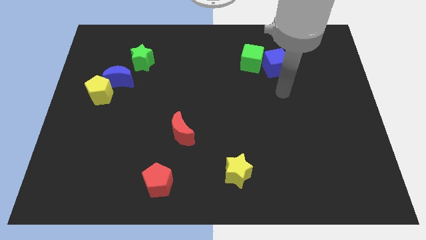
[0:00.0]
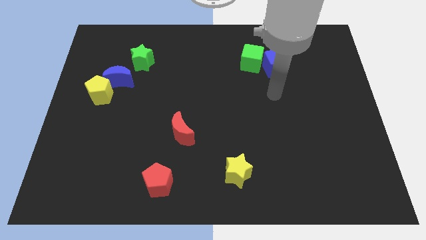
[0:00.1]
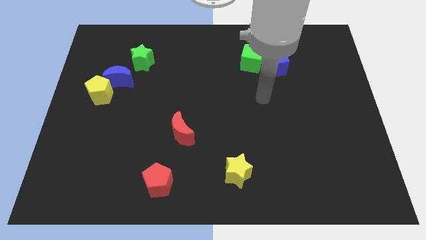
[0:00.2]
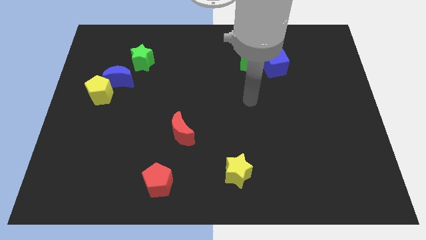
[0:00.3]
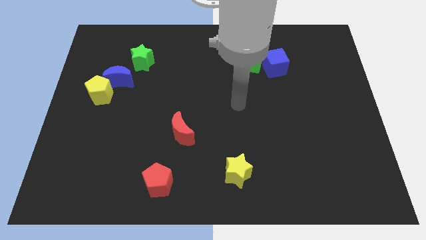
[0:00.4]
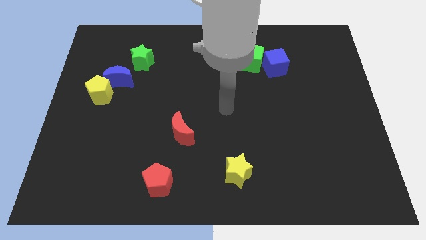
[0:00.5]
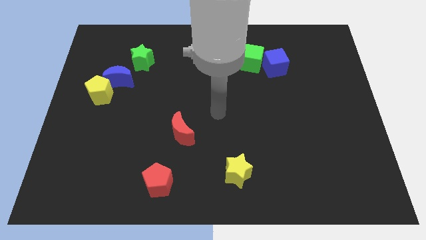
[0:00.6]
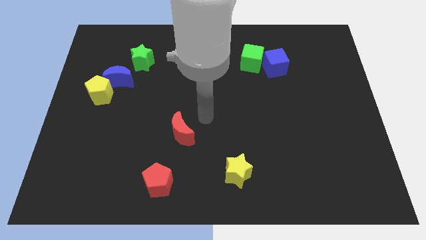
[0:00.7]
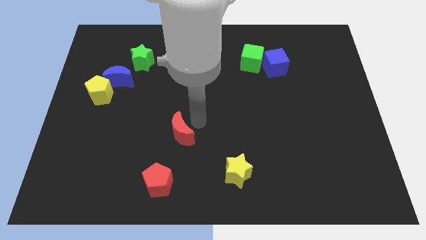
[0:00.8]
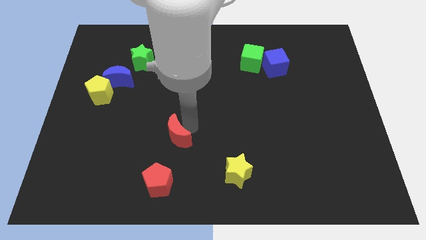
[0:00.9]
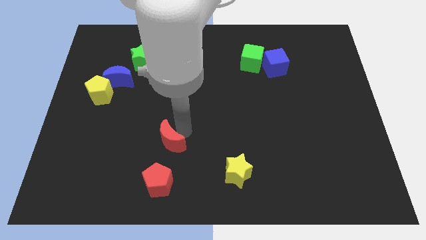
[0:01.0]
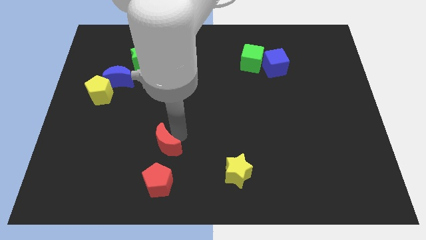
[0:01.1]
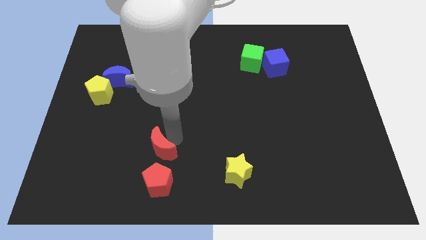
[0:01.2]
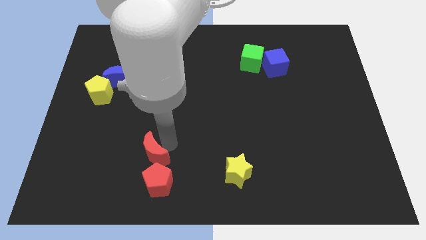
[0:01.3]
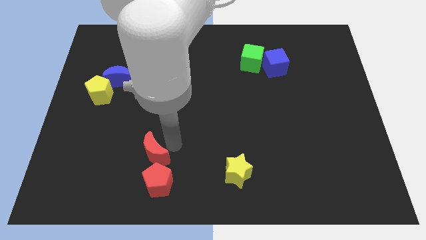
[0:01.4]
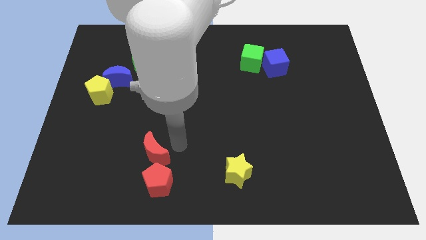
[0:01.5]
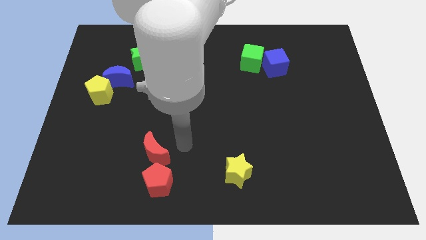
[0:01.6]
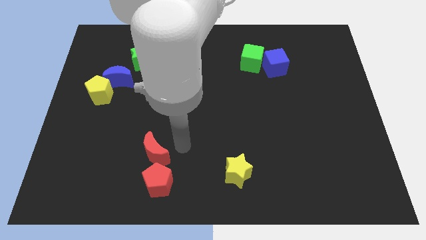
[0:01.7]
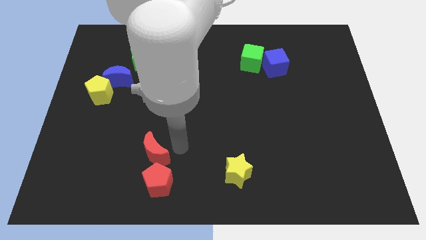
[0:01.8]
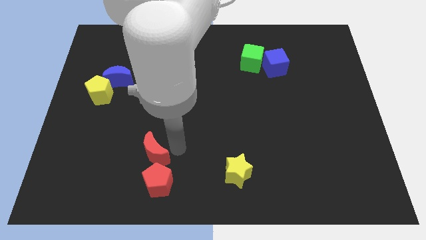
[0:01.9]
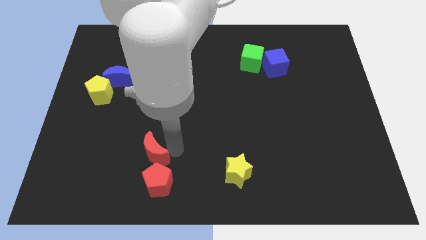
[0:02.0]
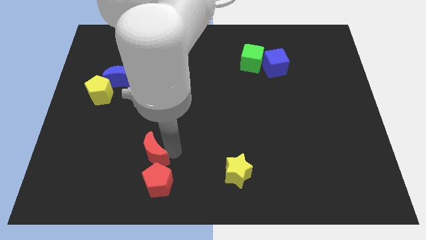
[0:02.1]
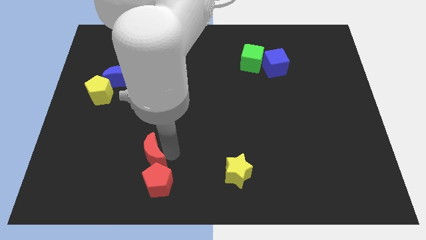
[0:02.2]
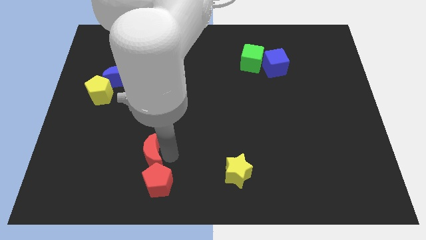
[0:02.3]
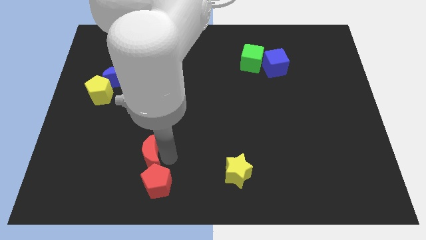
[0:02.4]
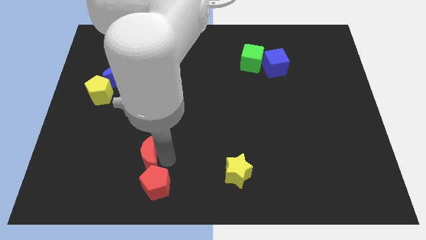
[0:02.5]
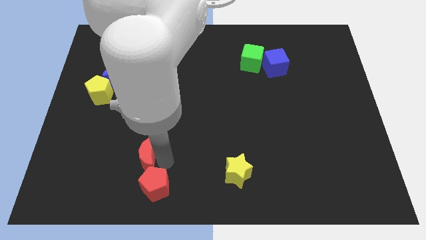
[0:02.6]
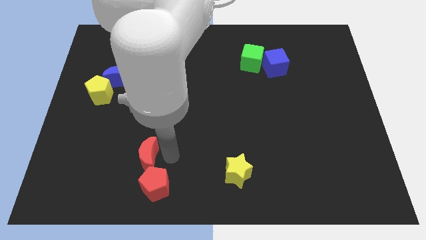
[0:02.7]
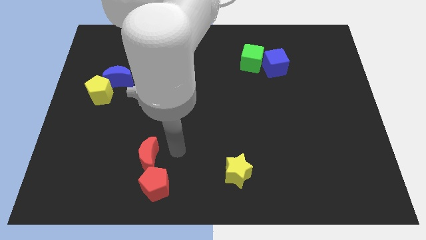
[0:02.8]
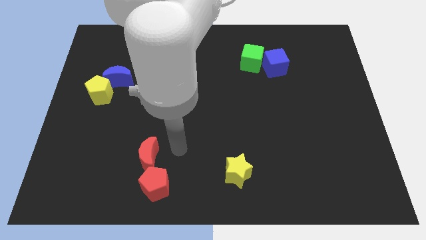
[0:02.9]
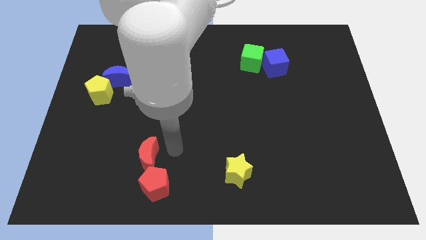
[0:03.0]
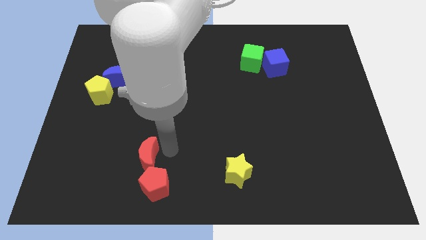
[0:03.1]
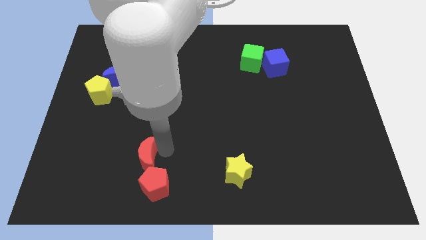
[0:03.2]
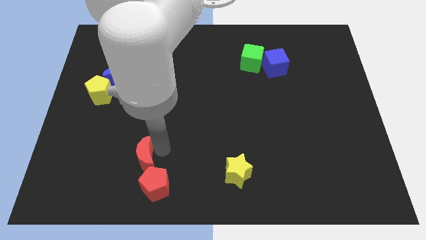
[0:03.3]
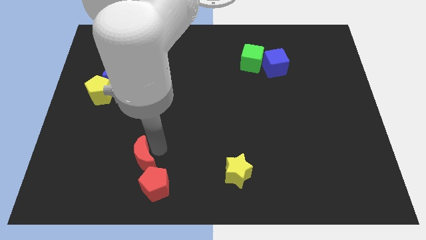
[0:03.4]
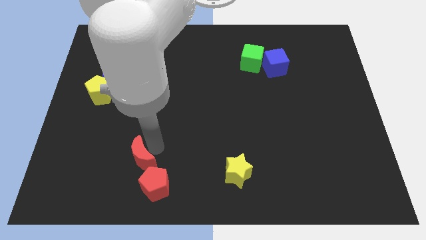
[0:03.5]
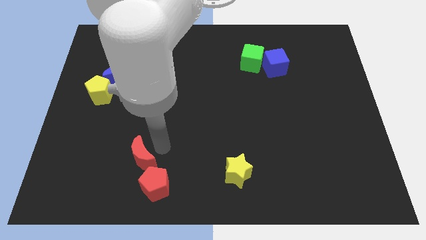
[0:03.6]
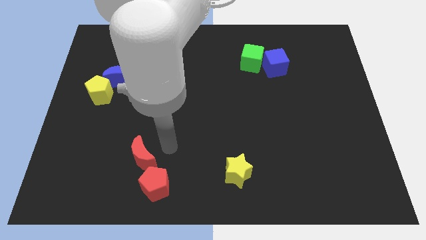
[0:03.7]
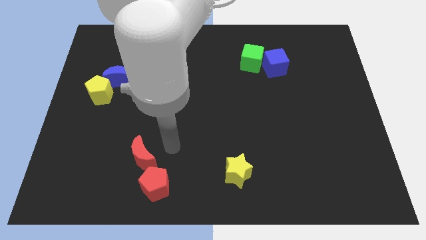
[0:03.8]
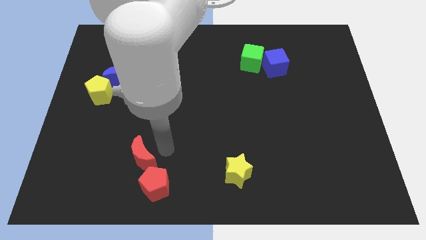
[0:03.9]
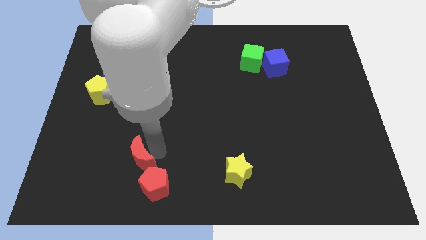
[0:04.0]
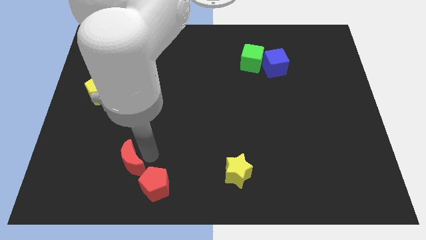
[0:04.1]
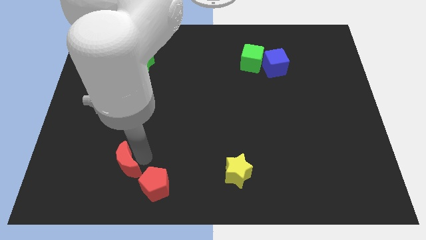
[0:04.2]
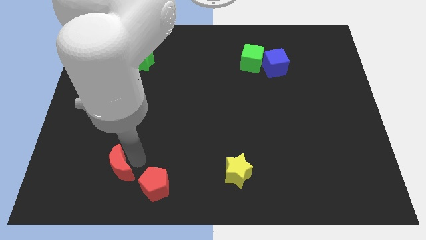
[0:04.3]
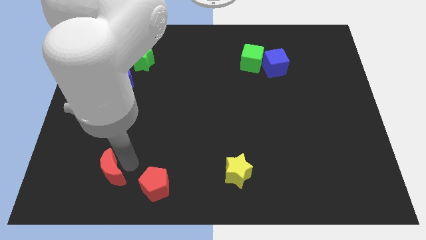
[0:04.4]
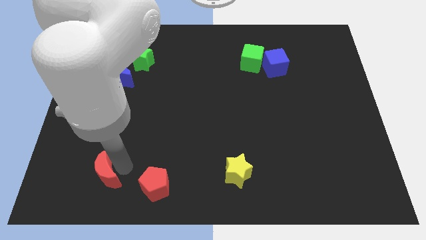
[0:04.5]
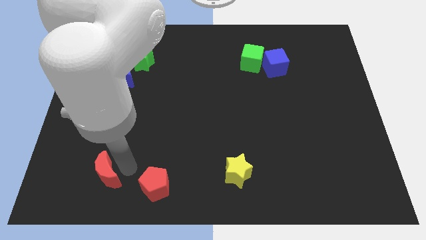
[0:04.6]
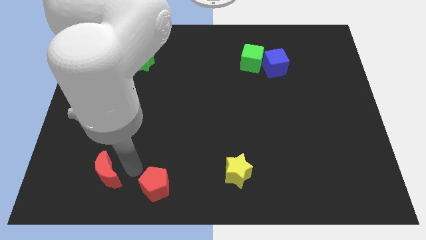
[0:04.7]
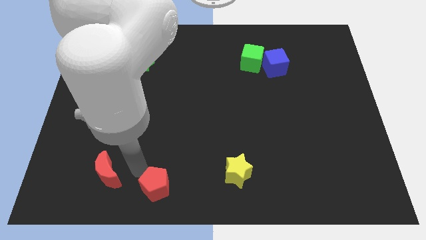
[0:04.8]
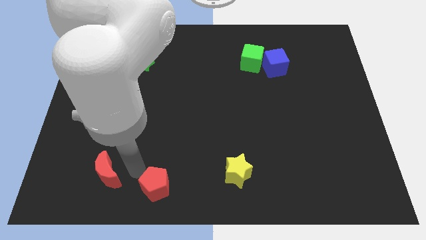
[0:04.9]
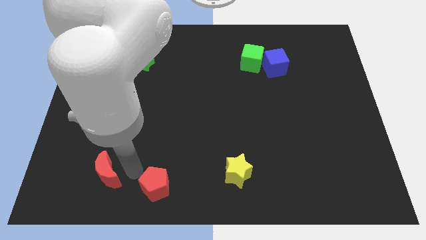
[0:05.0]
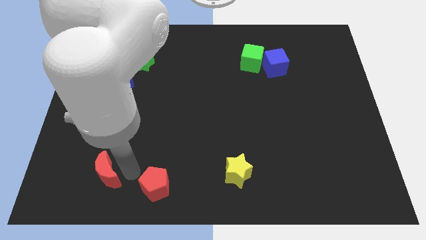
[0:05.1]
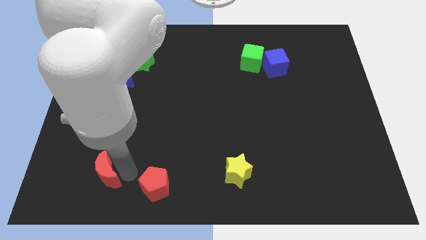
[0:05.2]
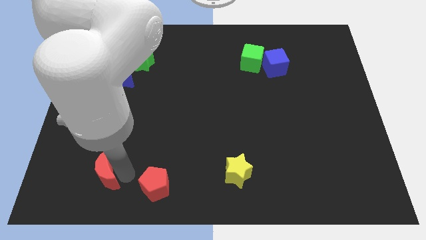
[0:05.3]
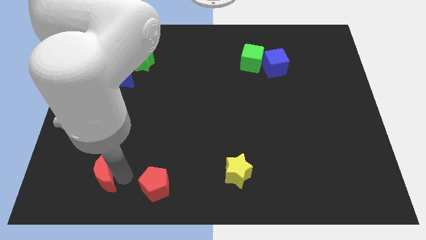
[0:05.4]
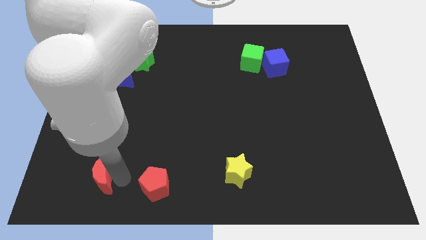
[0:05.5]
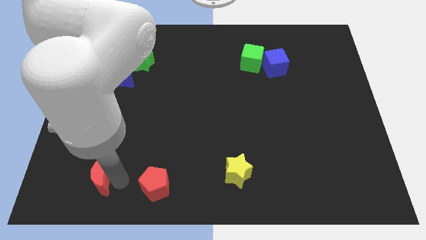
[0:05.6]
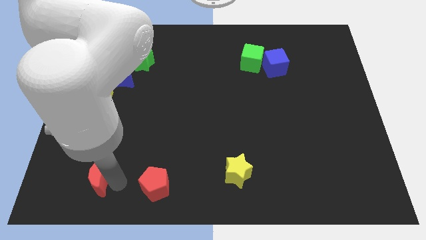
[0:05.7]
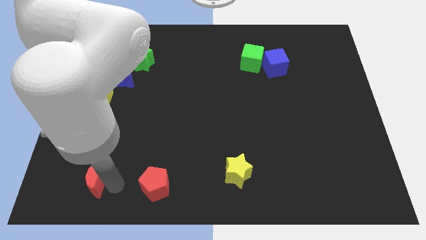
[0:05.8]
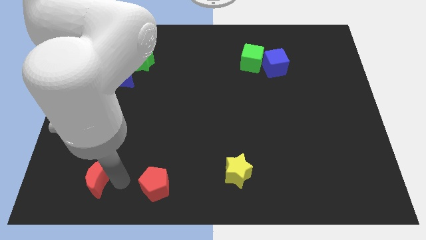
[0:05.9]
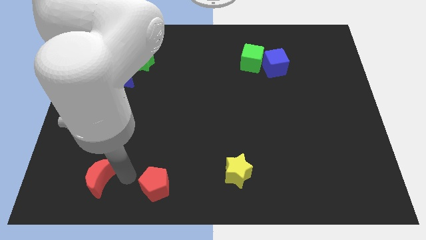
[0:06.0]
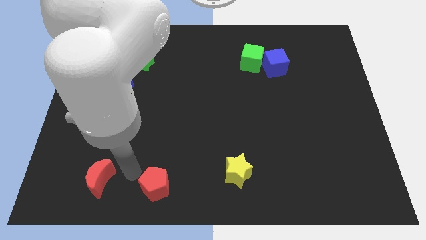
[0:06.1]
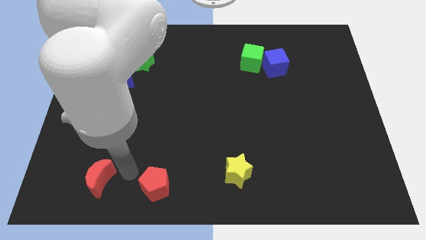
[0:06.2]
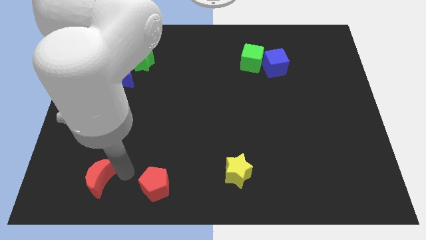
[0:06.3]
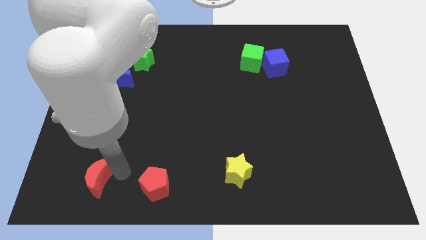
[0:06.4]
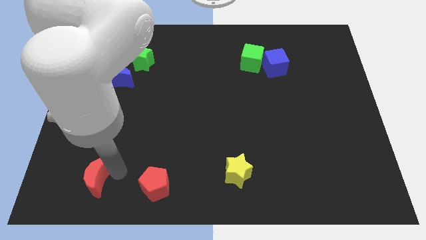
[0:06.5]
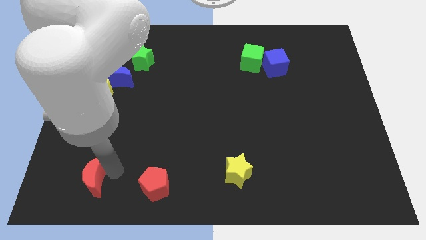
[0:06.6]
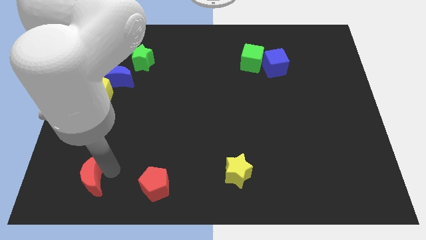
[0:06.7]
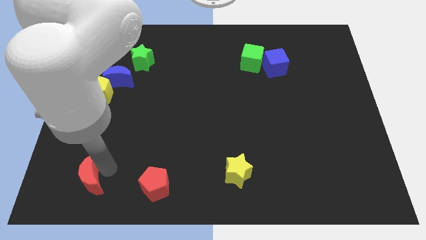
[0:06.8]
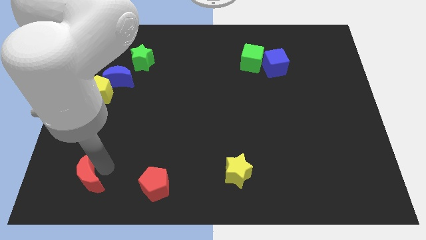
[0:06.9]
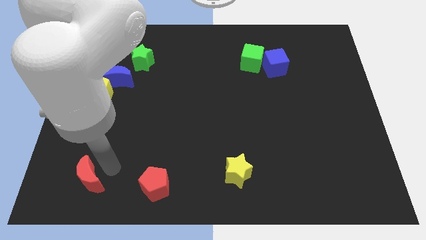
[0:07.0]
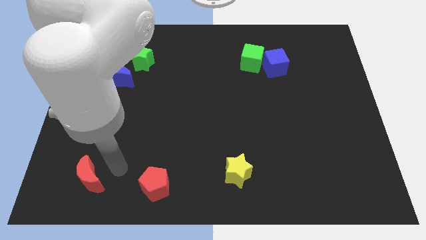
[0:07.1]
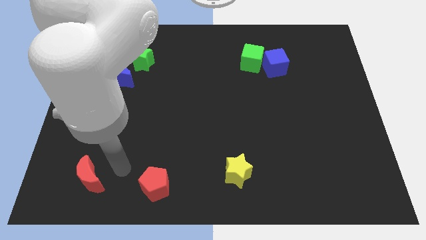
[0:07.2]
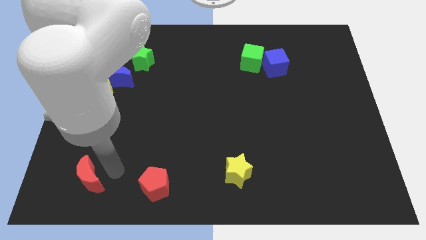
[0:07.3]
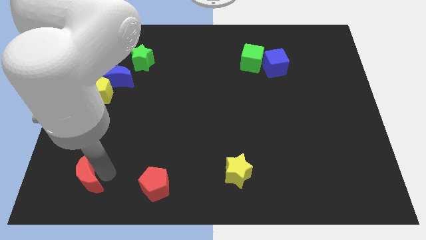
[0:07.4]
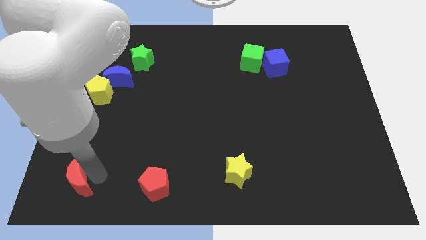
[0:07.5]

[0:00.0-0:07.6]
move the red moon to the bottom left

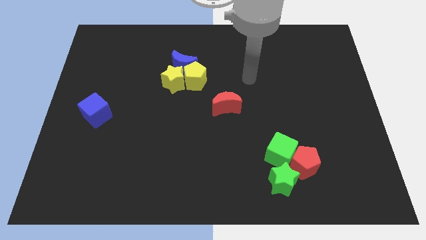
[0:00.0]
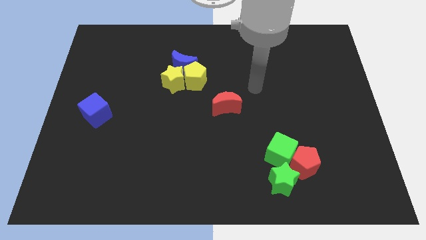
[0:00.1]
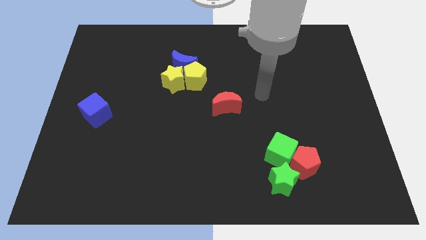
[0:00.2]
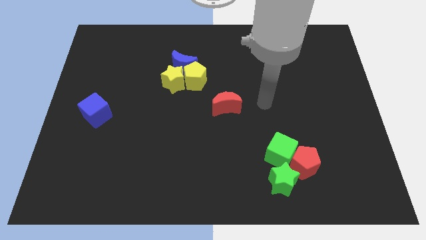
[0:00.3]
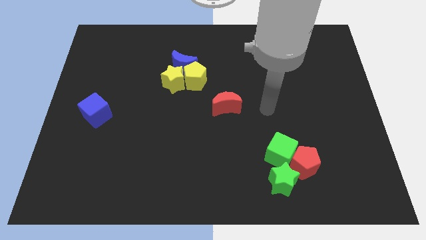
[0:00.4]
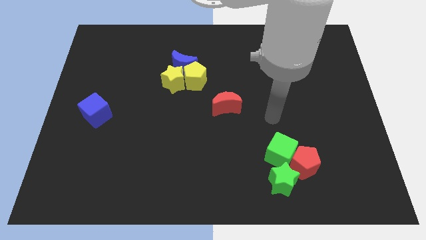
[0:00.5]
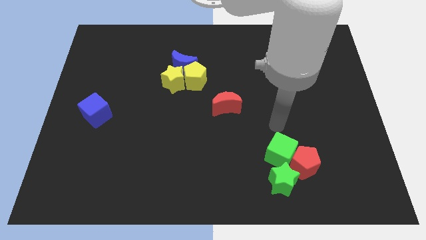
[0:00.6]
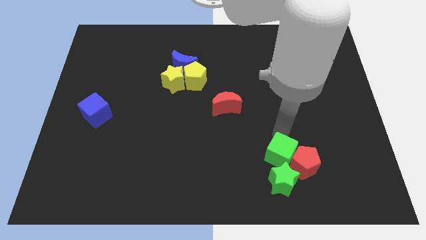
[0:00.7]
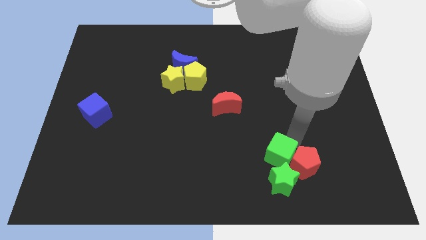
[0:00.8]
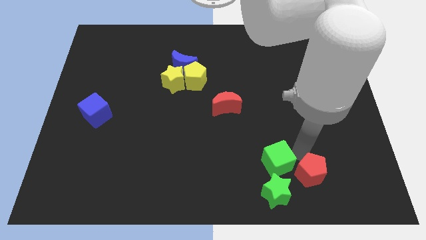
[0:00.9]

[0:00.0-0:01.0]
put the green star to the bottom side
